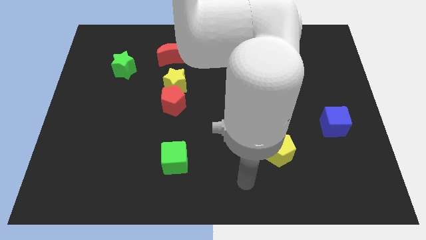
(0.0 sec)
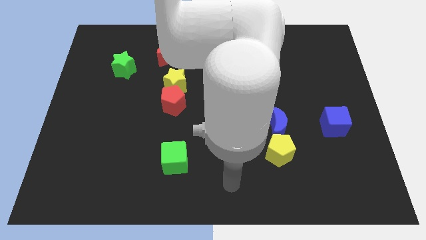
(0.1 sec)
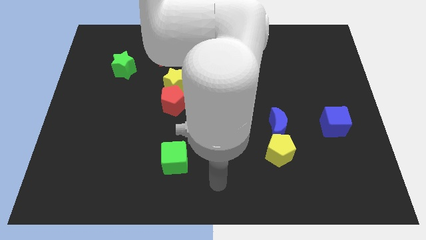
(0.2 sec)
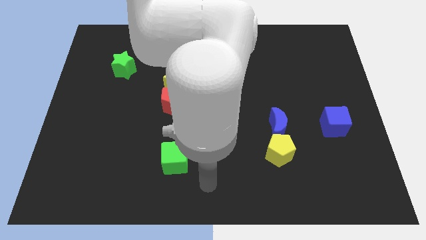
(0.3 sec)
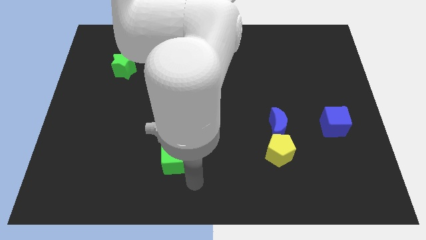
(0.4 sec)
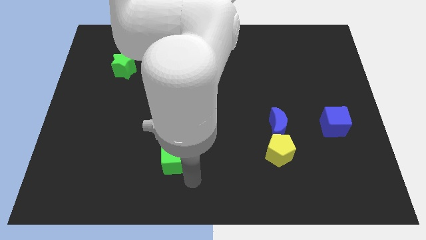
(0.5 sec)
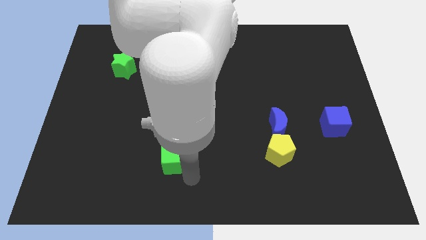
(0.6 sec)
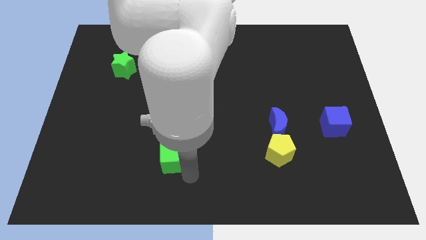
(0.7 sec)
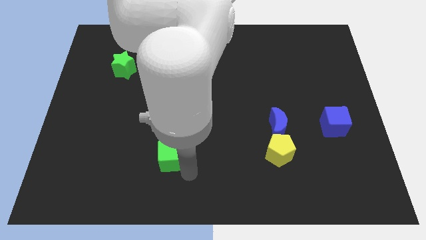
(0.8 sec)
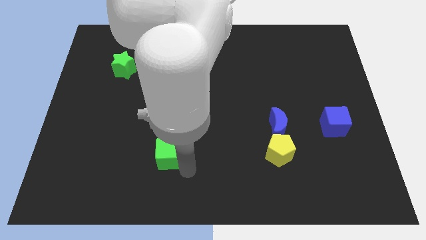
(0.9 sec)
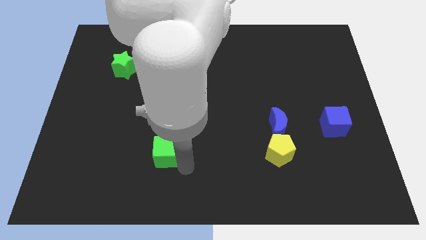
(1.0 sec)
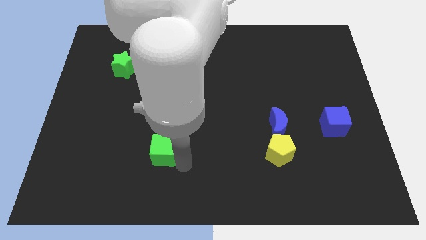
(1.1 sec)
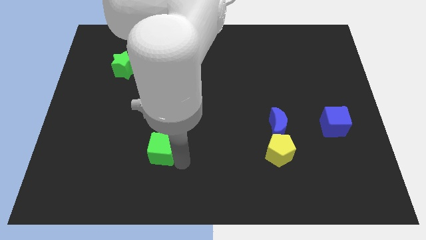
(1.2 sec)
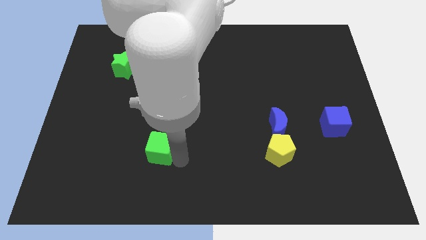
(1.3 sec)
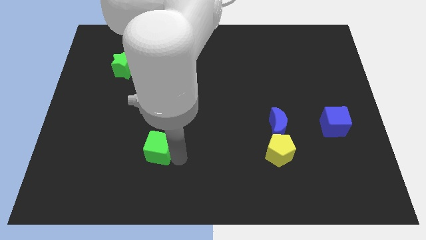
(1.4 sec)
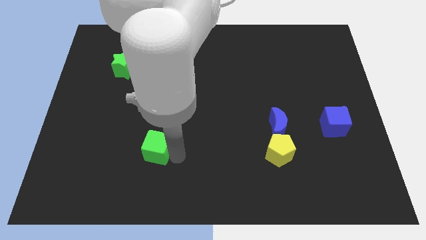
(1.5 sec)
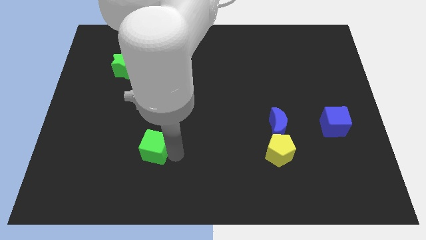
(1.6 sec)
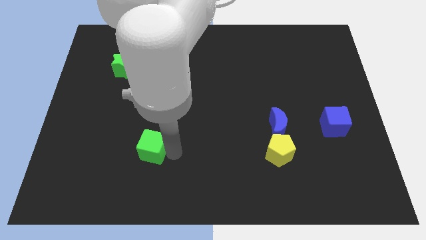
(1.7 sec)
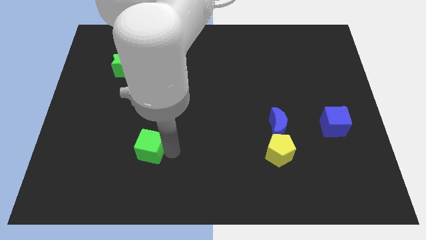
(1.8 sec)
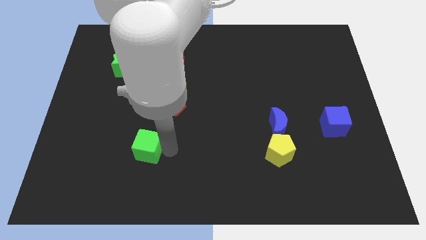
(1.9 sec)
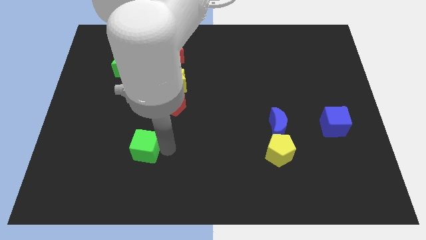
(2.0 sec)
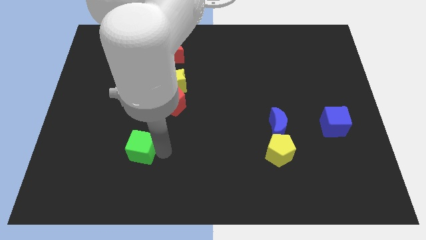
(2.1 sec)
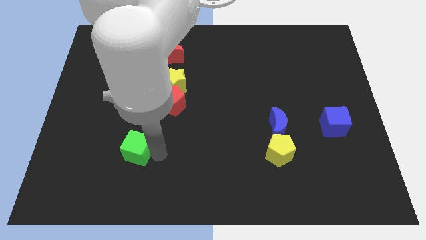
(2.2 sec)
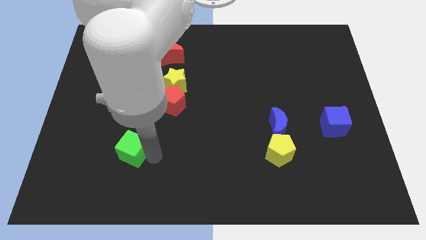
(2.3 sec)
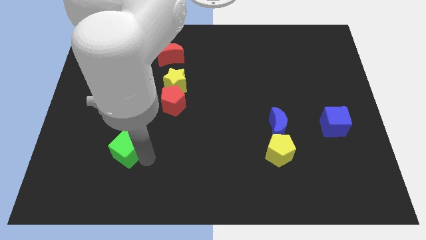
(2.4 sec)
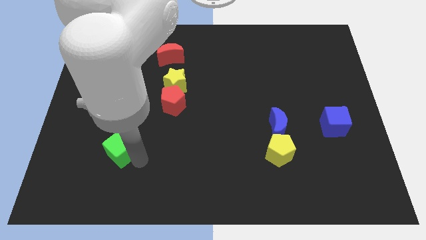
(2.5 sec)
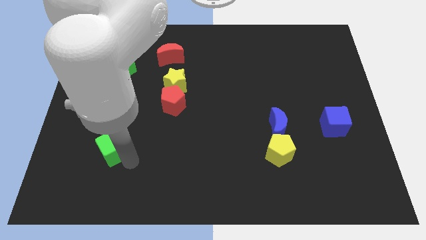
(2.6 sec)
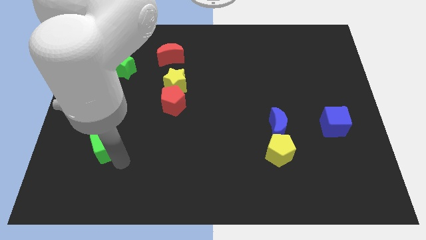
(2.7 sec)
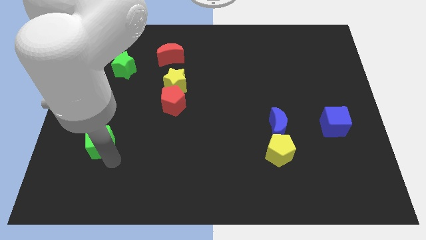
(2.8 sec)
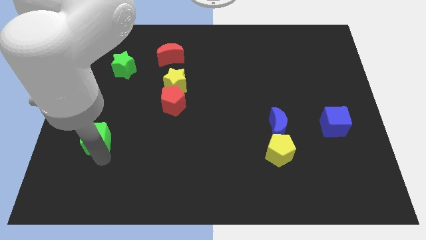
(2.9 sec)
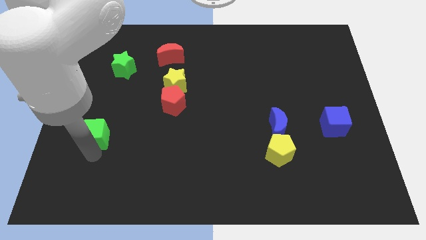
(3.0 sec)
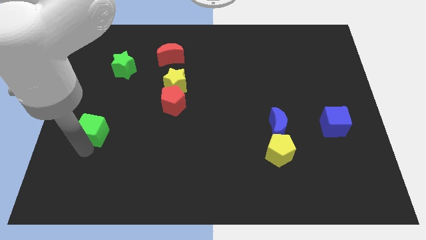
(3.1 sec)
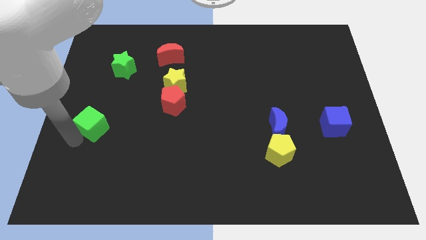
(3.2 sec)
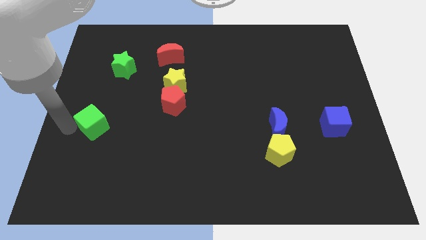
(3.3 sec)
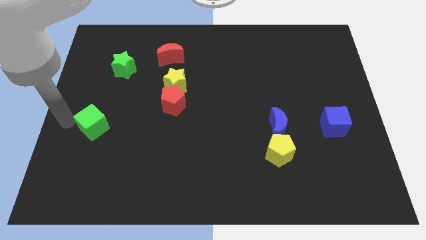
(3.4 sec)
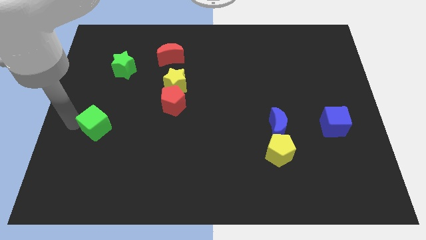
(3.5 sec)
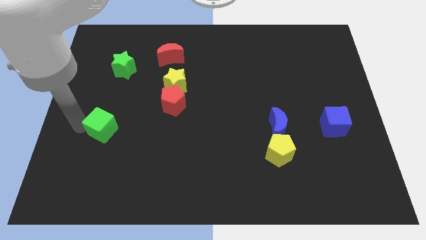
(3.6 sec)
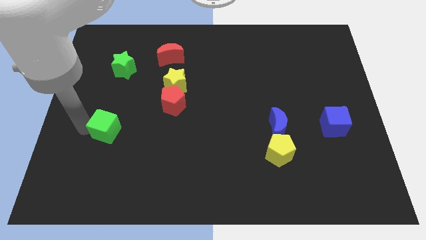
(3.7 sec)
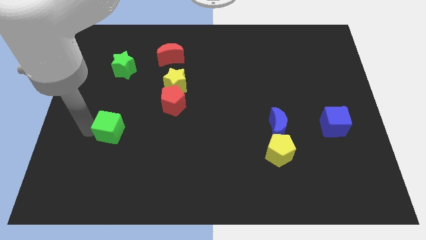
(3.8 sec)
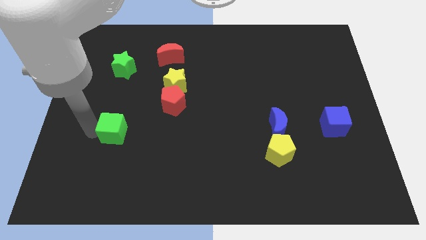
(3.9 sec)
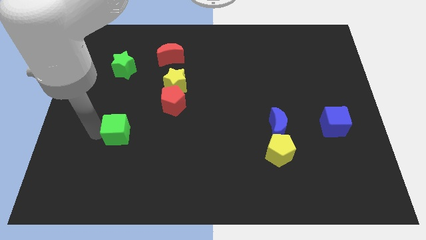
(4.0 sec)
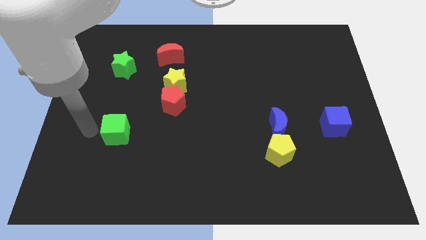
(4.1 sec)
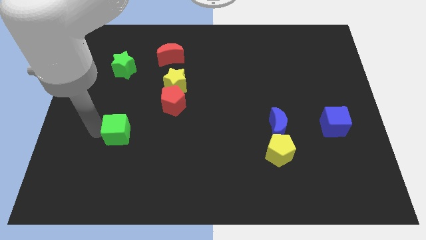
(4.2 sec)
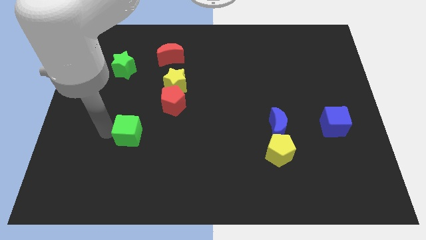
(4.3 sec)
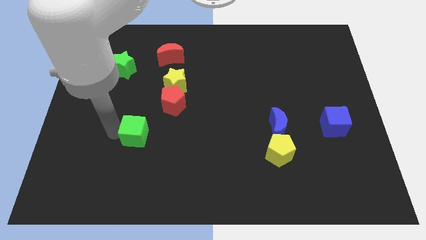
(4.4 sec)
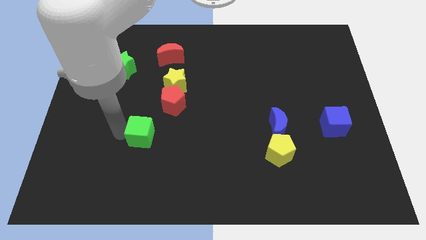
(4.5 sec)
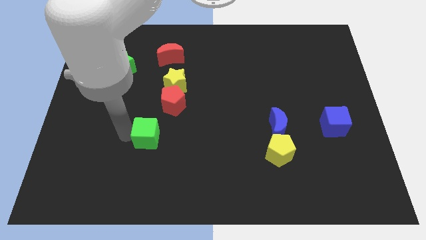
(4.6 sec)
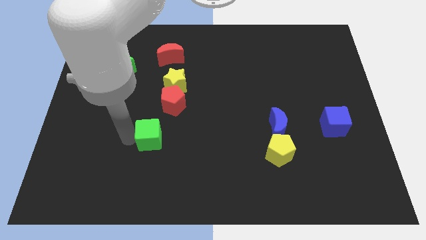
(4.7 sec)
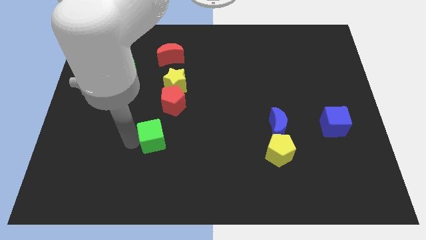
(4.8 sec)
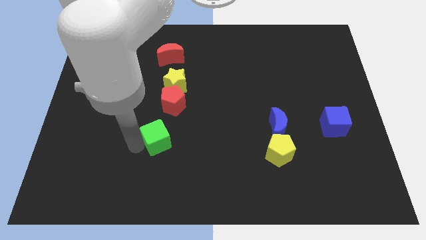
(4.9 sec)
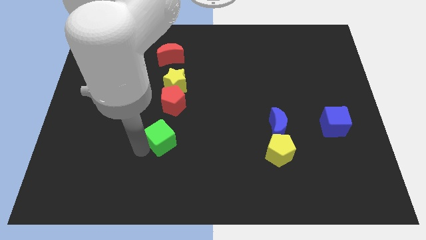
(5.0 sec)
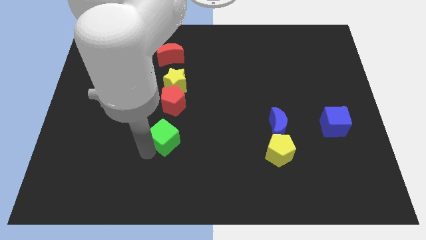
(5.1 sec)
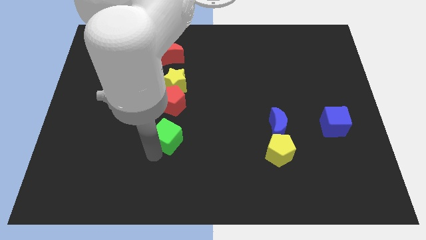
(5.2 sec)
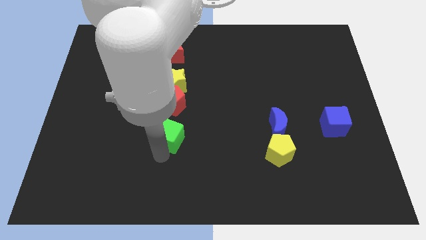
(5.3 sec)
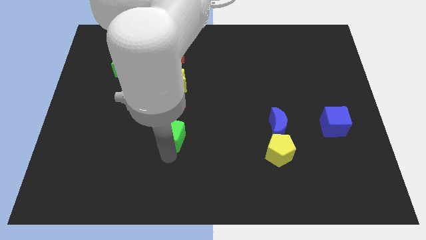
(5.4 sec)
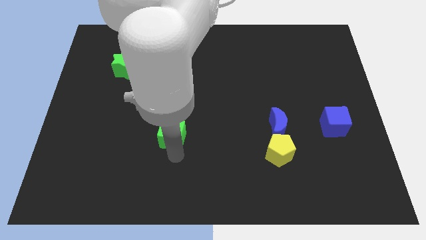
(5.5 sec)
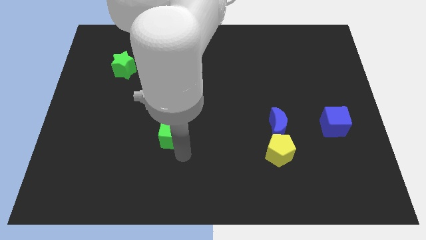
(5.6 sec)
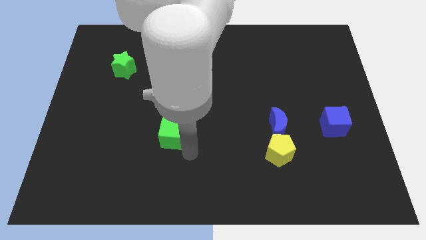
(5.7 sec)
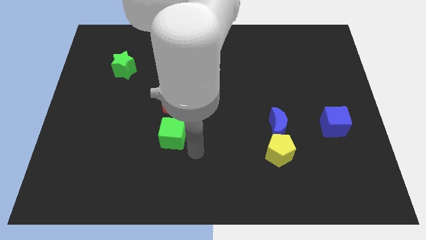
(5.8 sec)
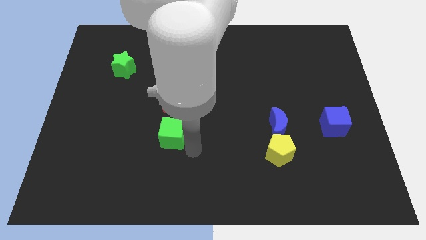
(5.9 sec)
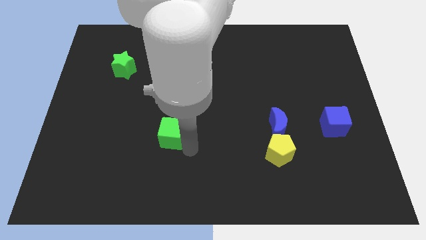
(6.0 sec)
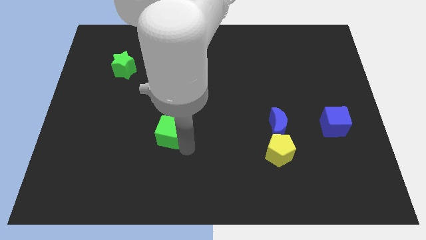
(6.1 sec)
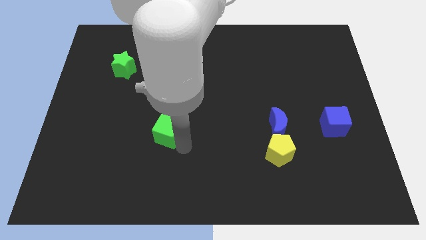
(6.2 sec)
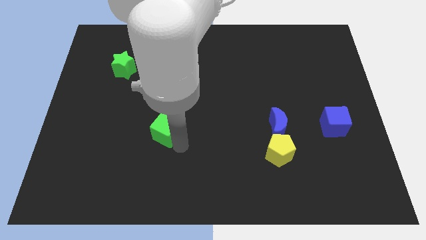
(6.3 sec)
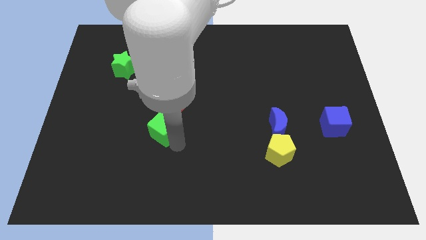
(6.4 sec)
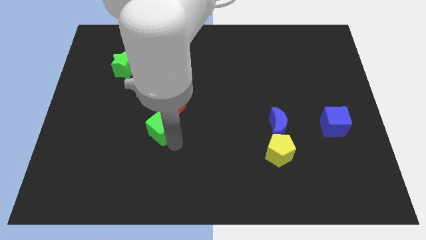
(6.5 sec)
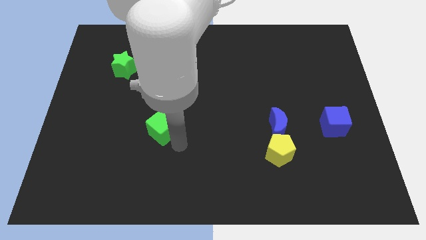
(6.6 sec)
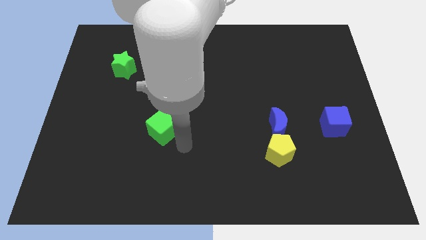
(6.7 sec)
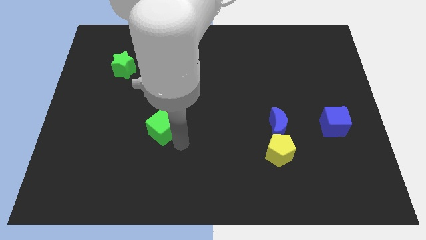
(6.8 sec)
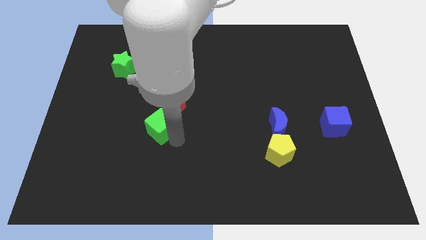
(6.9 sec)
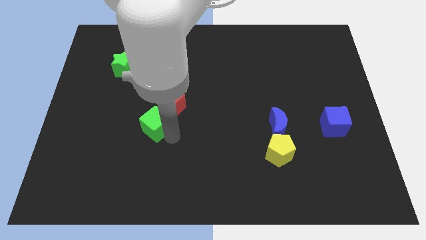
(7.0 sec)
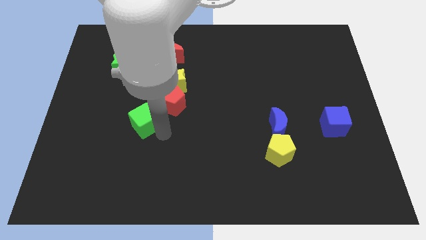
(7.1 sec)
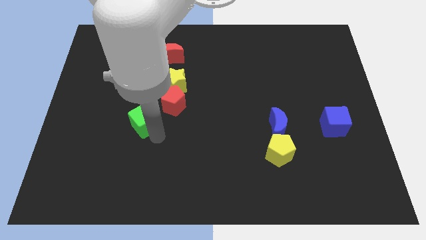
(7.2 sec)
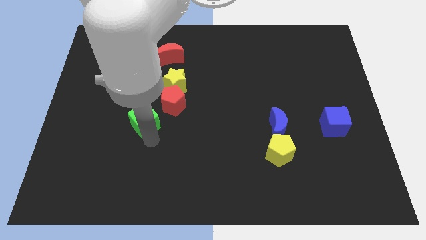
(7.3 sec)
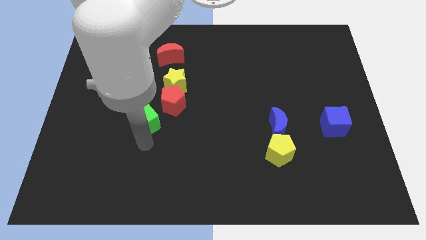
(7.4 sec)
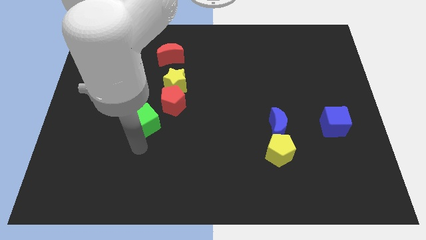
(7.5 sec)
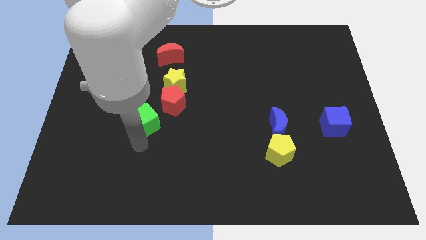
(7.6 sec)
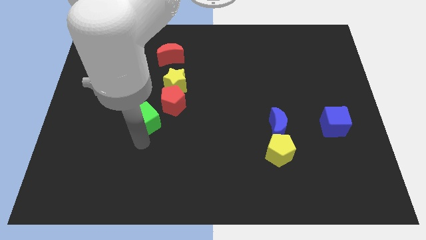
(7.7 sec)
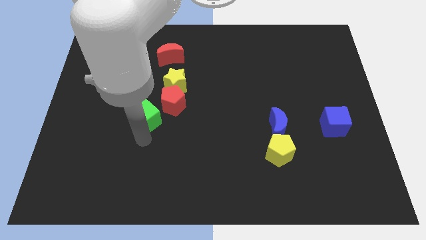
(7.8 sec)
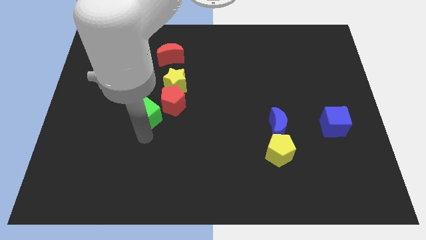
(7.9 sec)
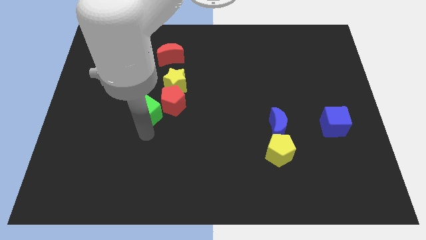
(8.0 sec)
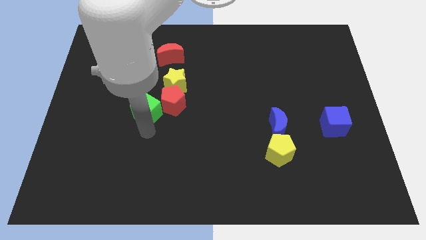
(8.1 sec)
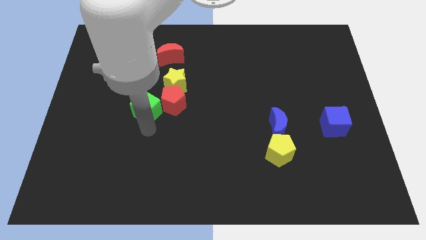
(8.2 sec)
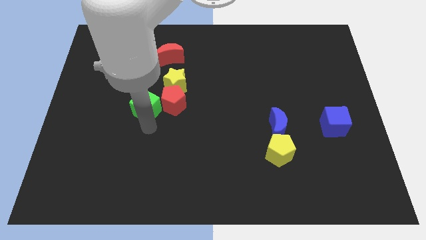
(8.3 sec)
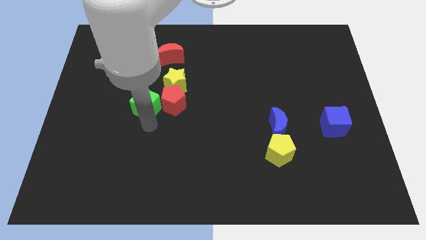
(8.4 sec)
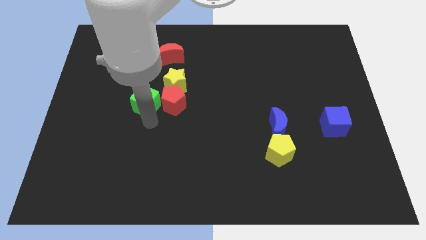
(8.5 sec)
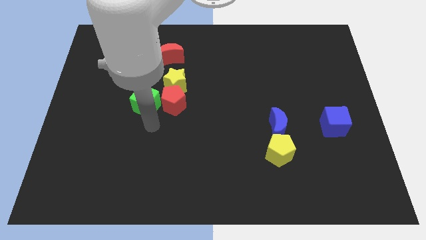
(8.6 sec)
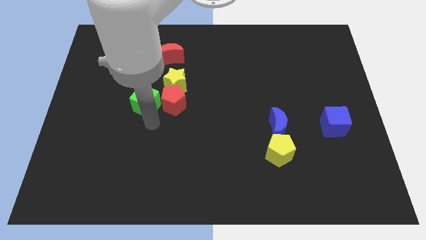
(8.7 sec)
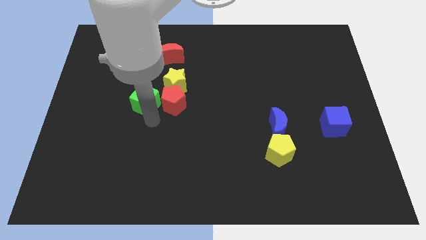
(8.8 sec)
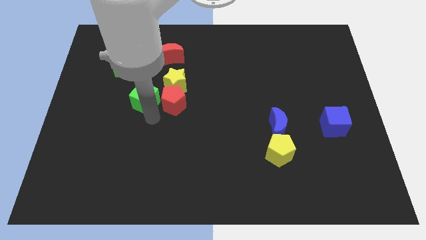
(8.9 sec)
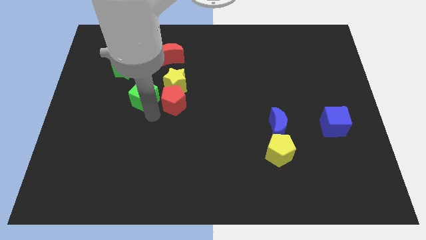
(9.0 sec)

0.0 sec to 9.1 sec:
put the green cube to the bottom right of the green star
